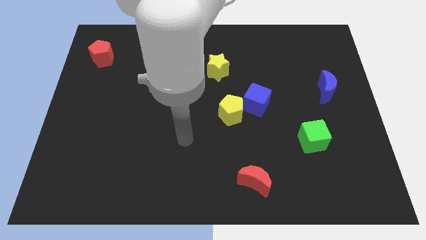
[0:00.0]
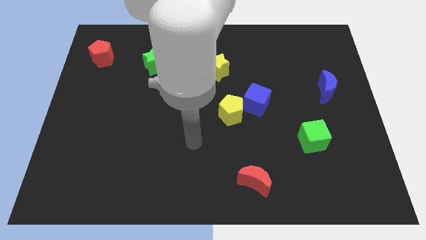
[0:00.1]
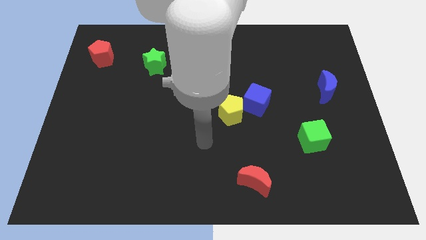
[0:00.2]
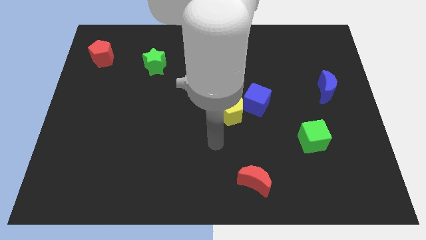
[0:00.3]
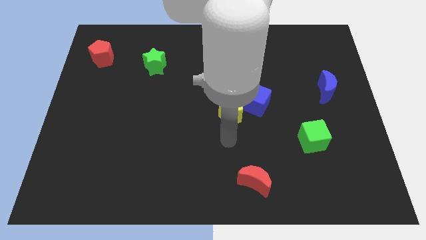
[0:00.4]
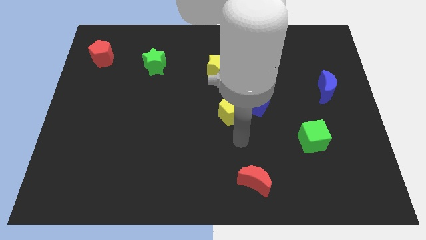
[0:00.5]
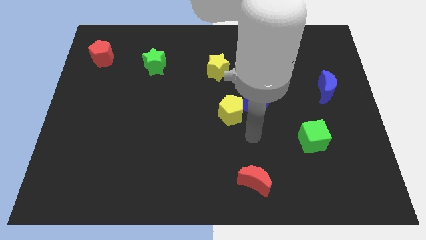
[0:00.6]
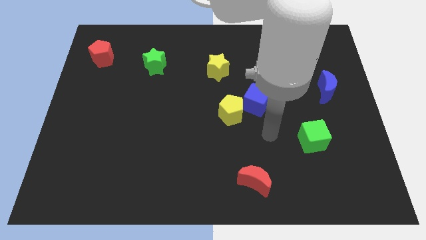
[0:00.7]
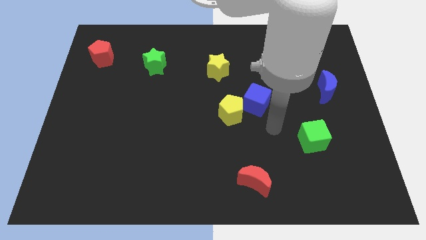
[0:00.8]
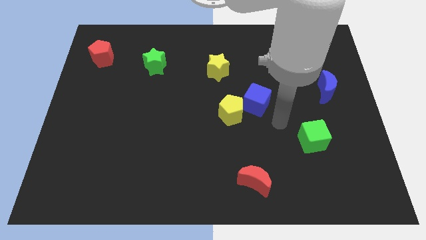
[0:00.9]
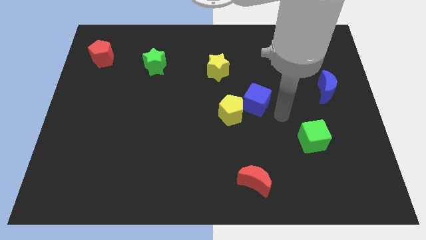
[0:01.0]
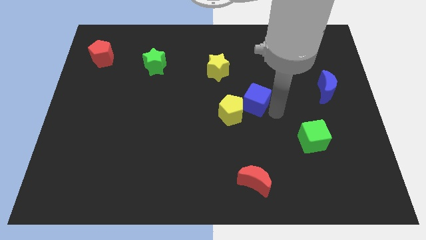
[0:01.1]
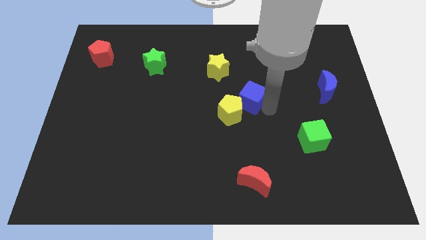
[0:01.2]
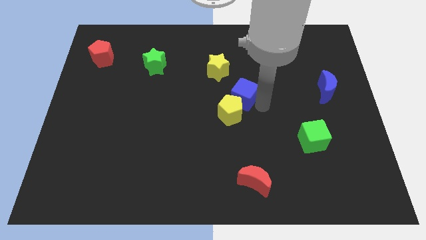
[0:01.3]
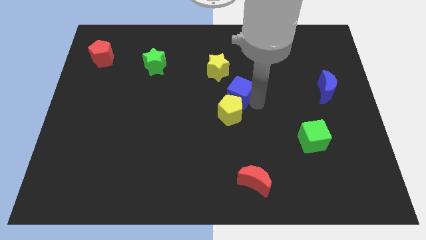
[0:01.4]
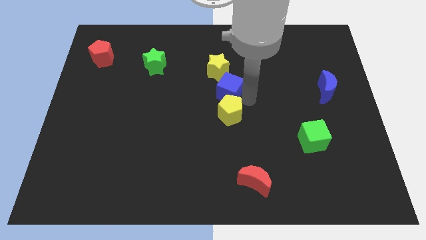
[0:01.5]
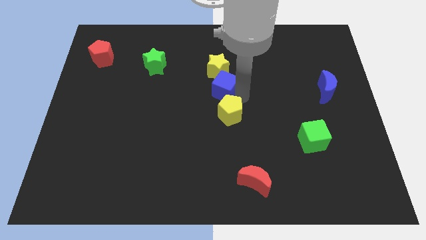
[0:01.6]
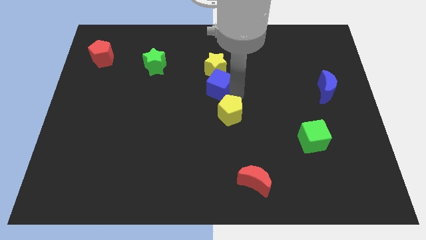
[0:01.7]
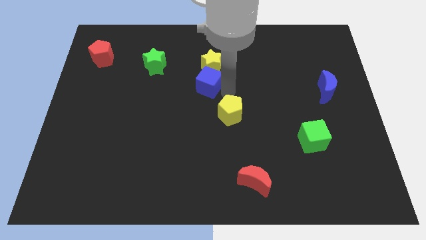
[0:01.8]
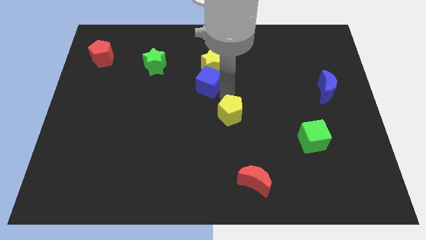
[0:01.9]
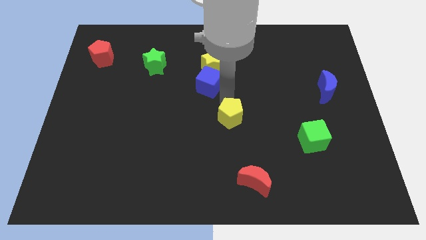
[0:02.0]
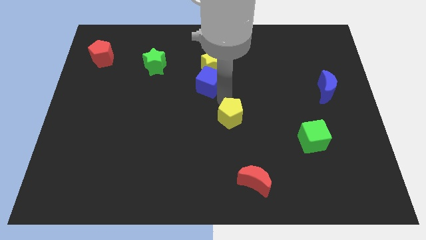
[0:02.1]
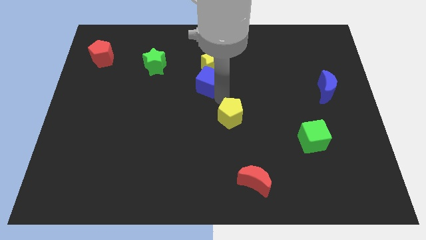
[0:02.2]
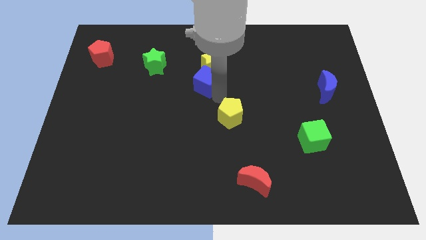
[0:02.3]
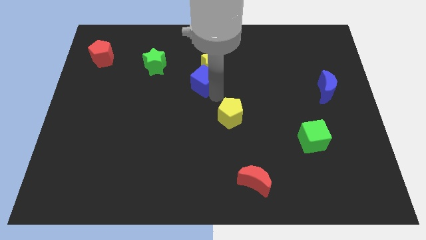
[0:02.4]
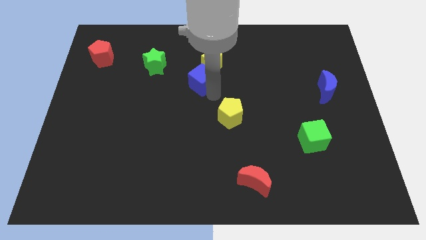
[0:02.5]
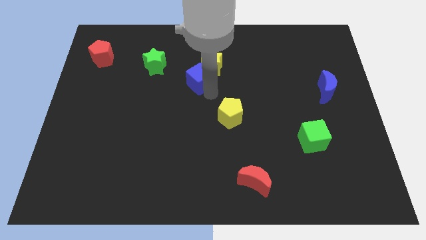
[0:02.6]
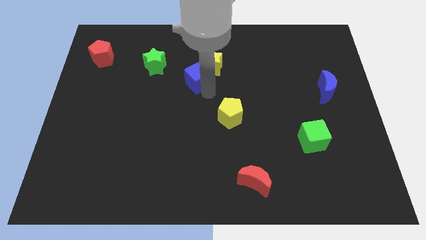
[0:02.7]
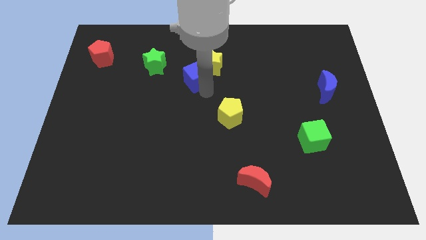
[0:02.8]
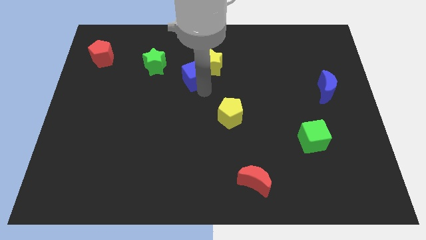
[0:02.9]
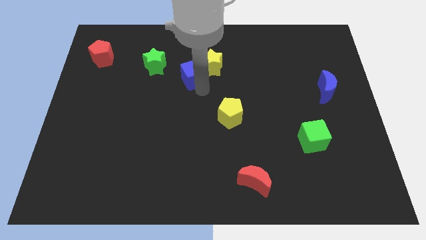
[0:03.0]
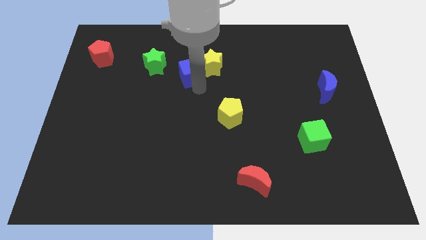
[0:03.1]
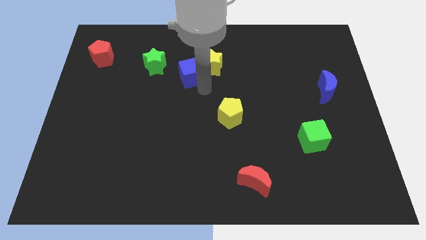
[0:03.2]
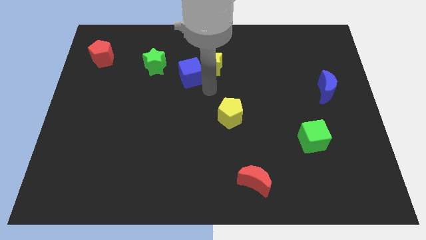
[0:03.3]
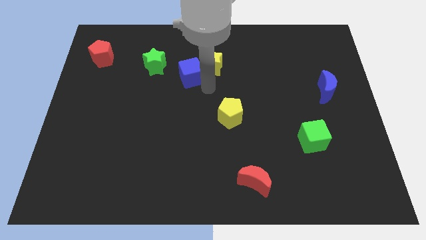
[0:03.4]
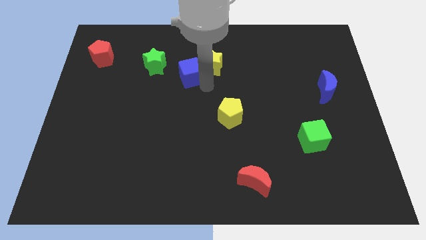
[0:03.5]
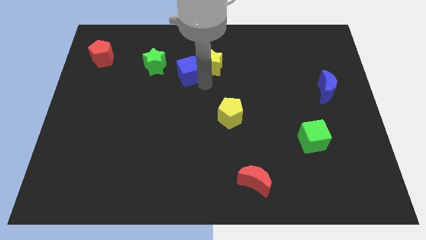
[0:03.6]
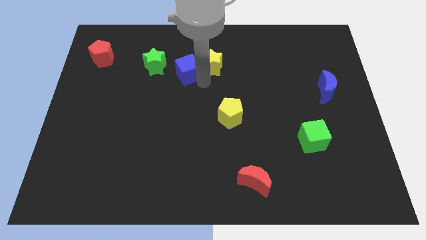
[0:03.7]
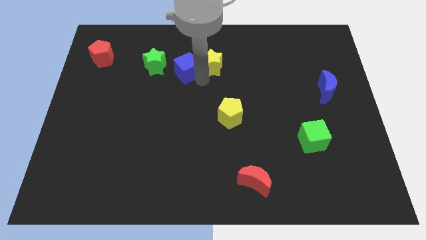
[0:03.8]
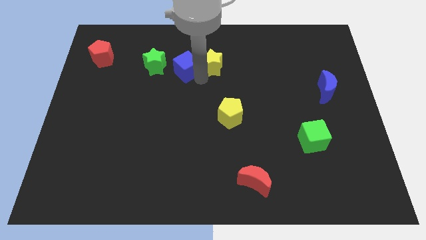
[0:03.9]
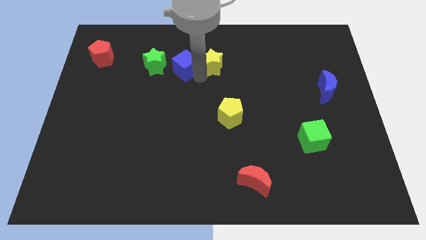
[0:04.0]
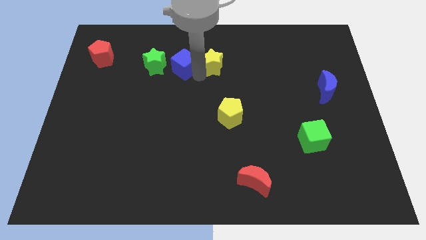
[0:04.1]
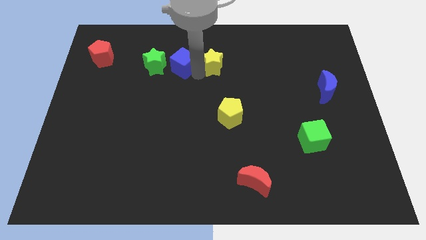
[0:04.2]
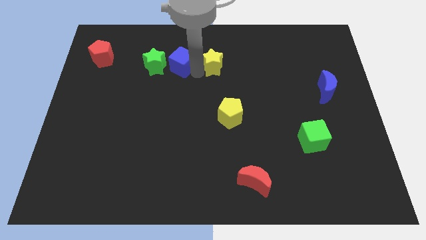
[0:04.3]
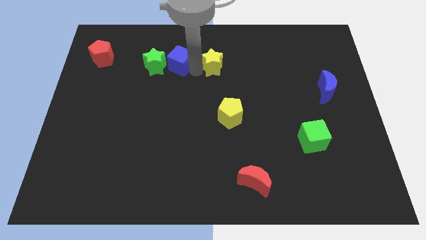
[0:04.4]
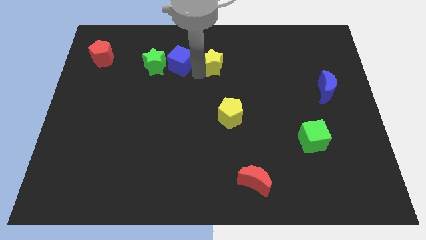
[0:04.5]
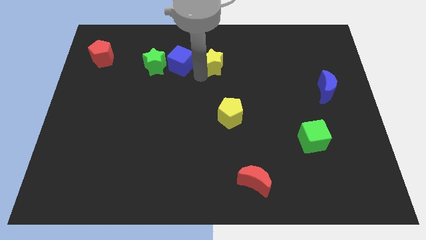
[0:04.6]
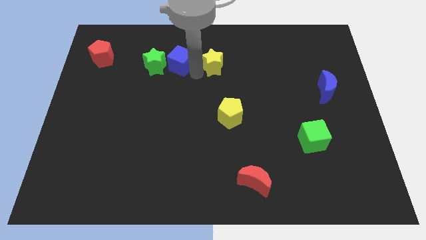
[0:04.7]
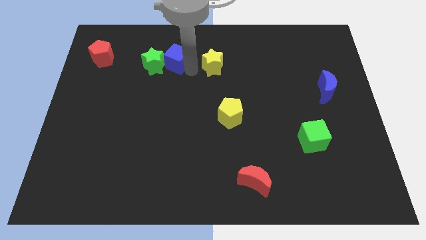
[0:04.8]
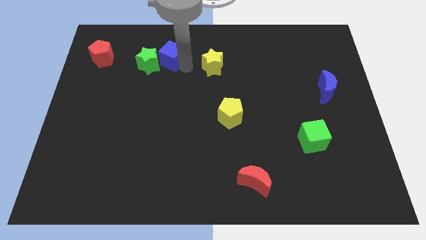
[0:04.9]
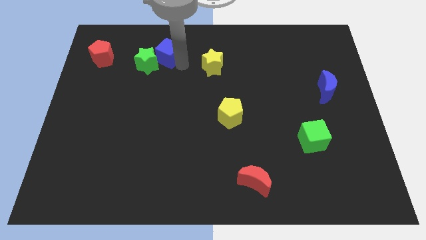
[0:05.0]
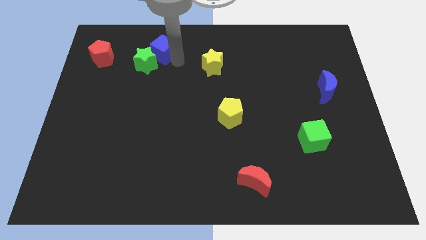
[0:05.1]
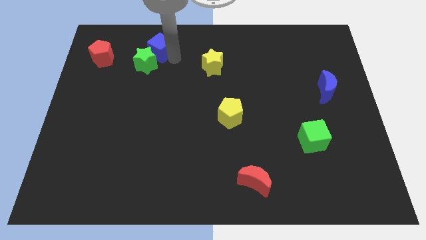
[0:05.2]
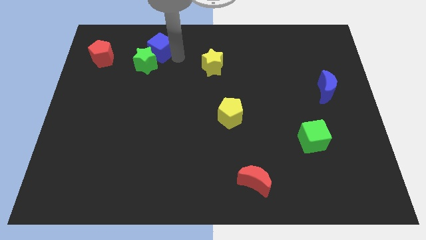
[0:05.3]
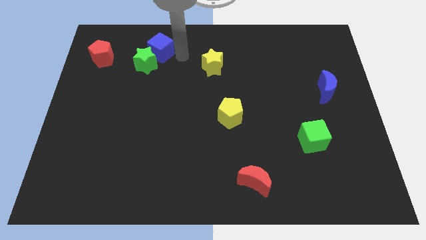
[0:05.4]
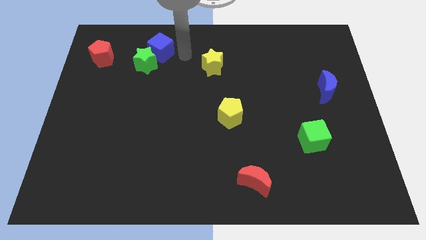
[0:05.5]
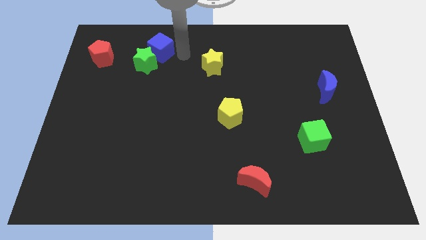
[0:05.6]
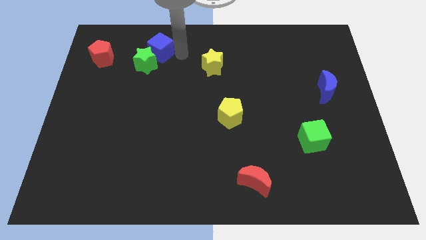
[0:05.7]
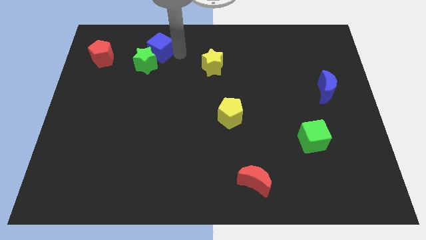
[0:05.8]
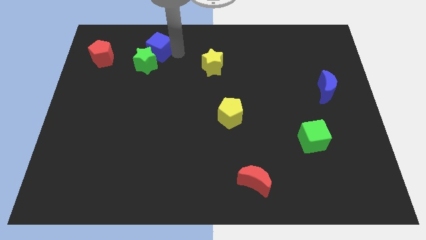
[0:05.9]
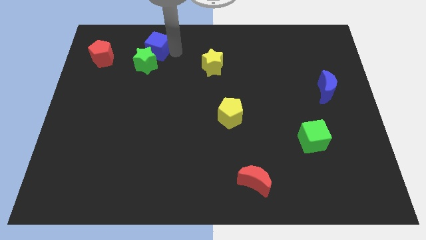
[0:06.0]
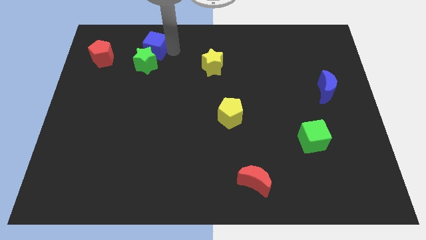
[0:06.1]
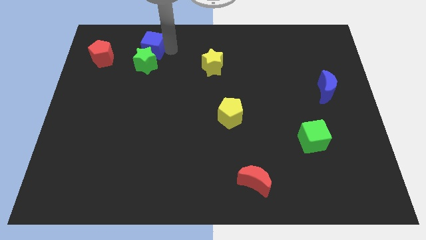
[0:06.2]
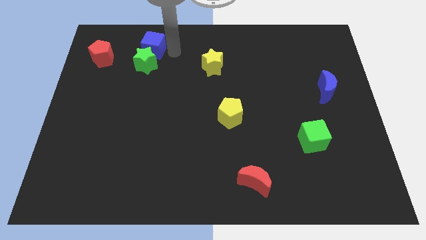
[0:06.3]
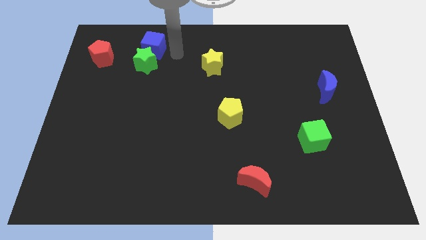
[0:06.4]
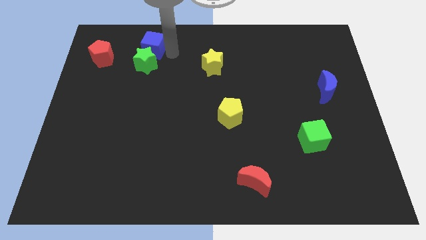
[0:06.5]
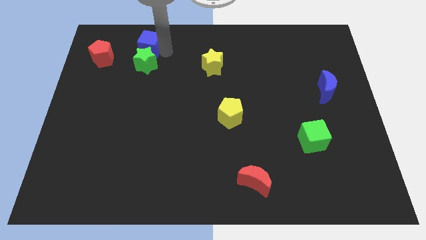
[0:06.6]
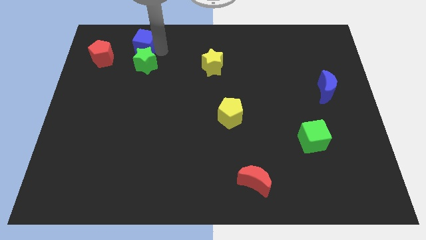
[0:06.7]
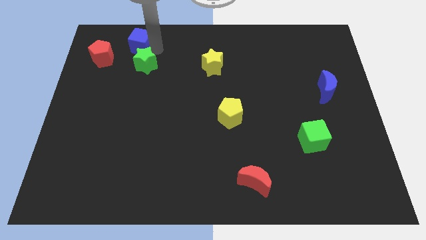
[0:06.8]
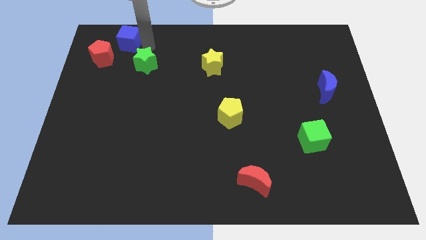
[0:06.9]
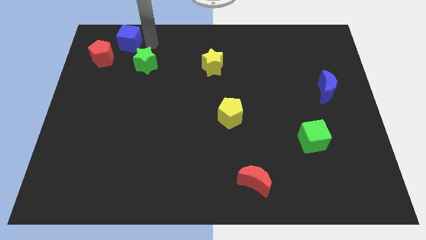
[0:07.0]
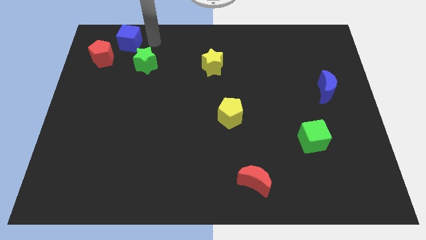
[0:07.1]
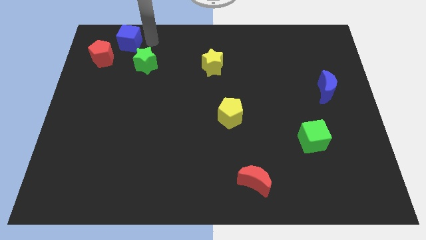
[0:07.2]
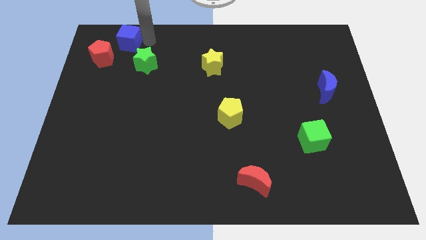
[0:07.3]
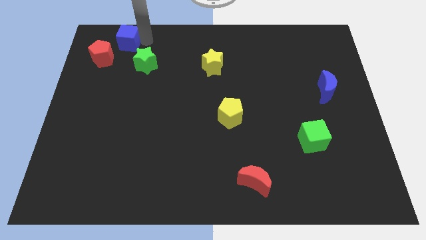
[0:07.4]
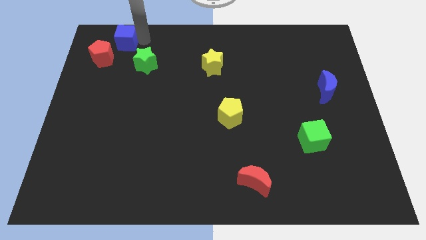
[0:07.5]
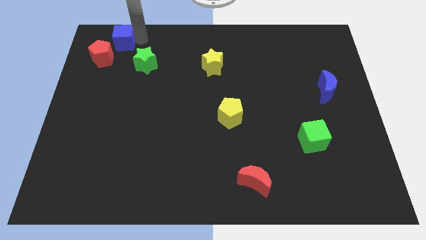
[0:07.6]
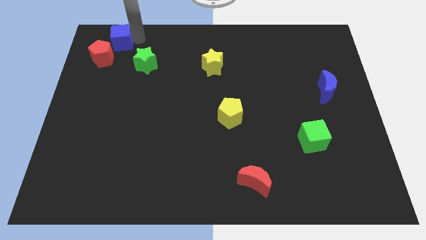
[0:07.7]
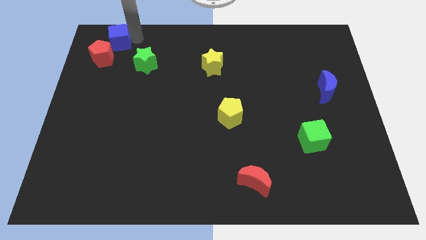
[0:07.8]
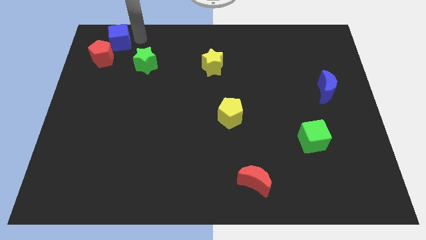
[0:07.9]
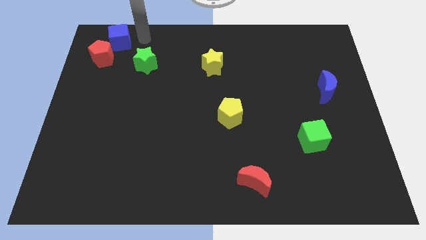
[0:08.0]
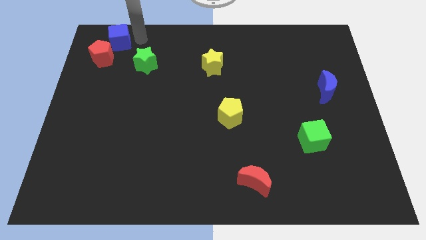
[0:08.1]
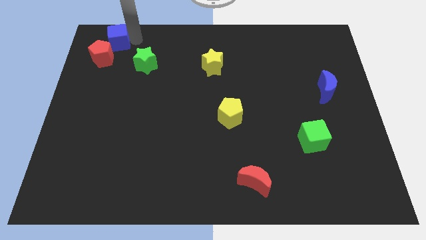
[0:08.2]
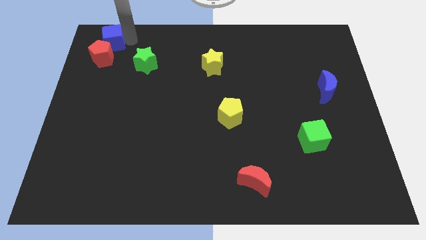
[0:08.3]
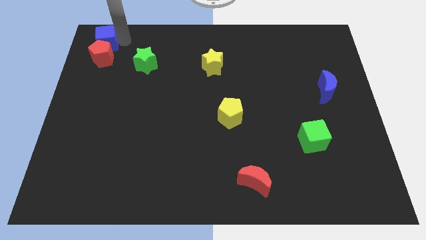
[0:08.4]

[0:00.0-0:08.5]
move the blue cube to the upper left corner

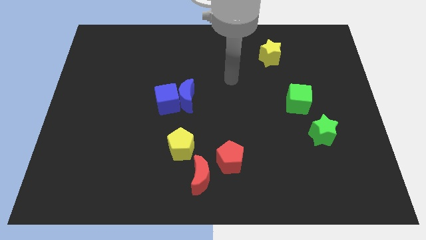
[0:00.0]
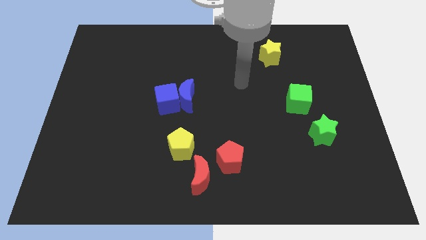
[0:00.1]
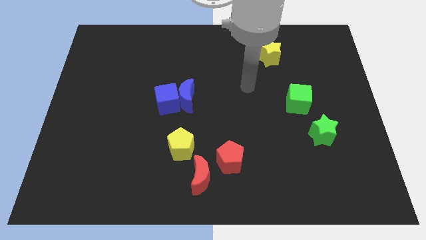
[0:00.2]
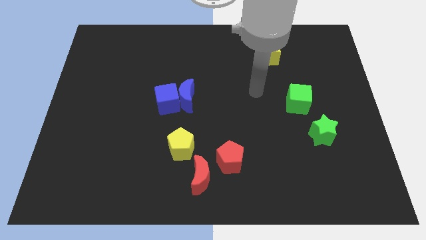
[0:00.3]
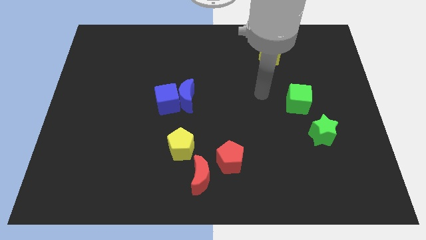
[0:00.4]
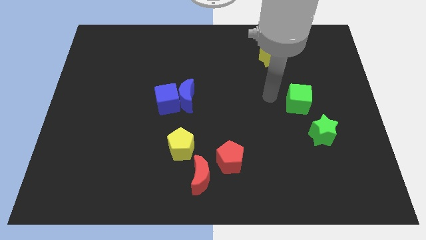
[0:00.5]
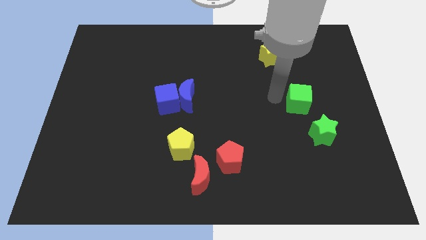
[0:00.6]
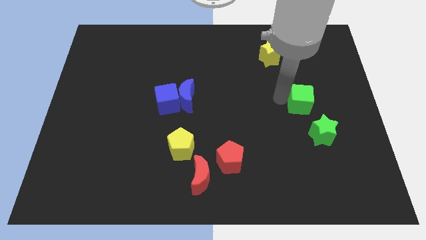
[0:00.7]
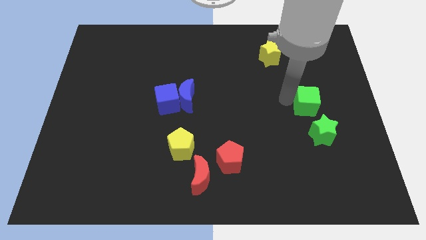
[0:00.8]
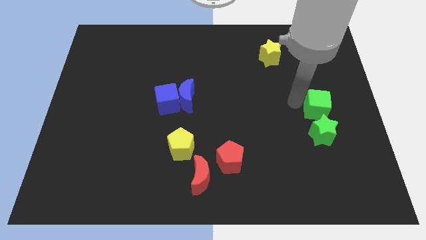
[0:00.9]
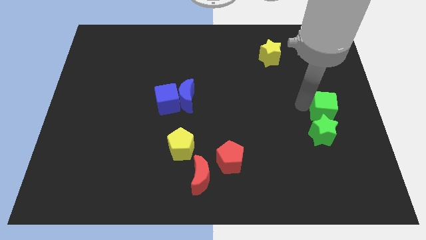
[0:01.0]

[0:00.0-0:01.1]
push the green cube to the center right
